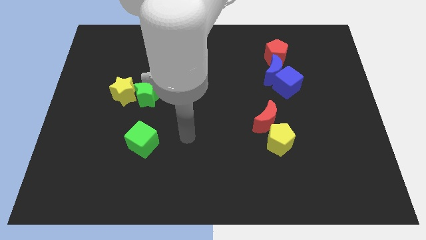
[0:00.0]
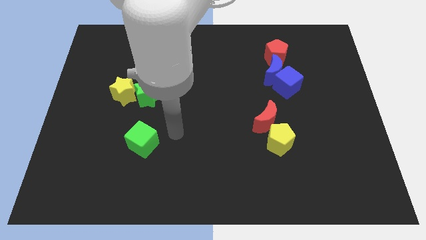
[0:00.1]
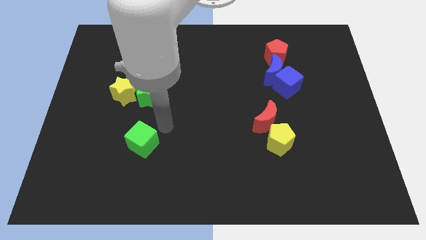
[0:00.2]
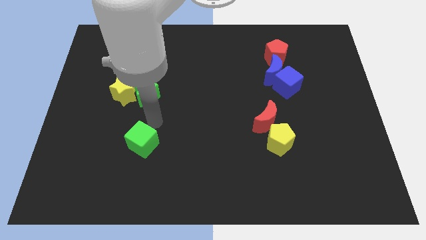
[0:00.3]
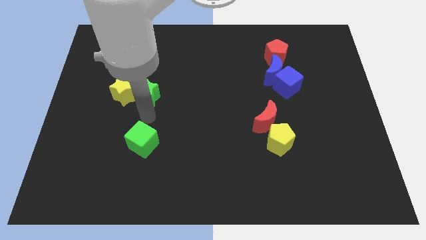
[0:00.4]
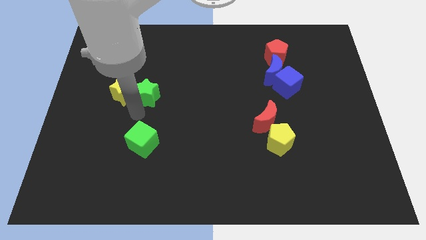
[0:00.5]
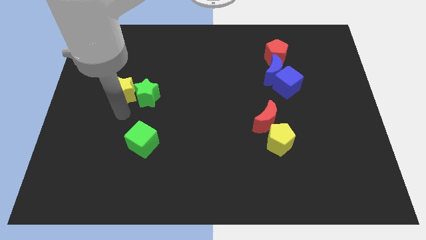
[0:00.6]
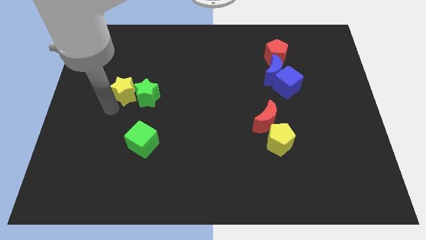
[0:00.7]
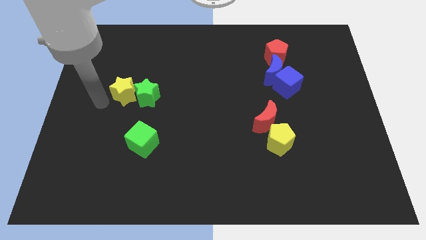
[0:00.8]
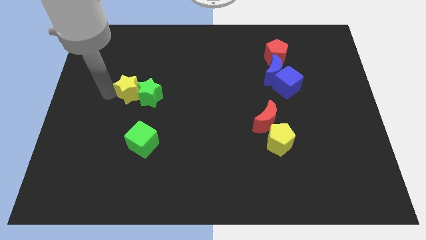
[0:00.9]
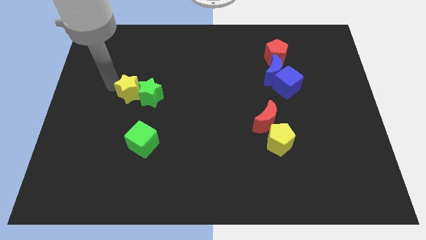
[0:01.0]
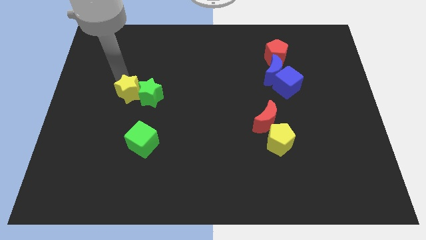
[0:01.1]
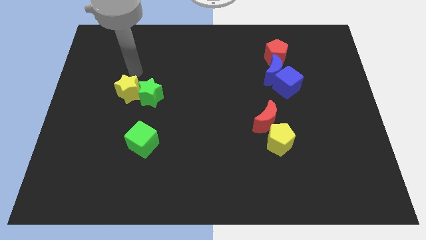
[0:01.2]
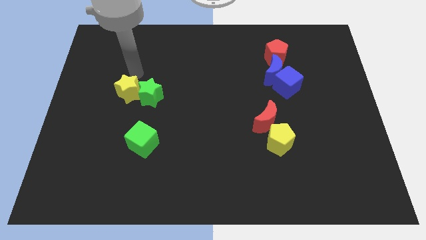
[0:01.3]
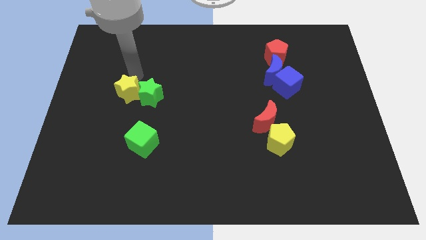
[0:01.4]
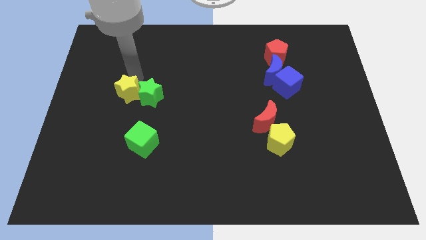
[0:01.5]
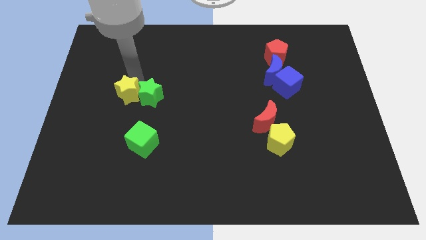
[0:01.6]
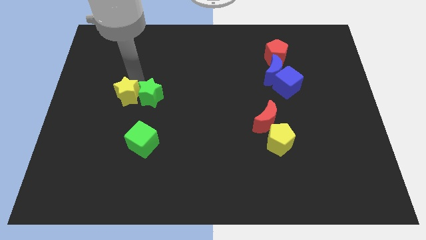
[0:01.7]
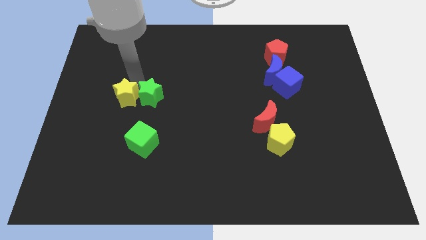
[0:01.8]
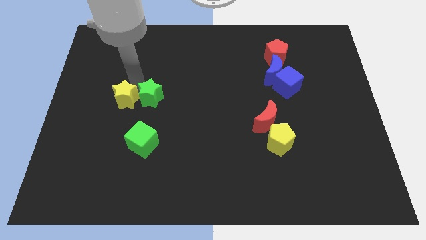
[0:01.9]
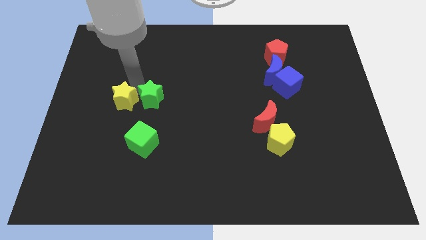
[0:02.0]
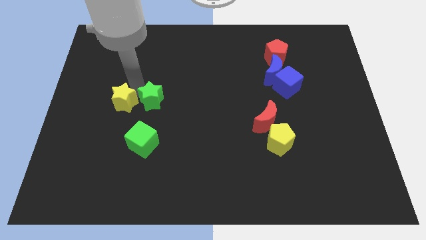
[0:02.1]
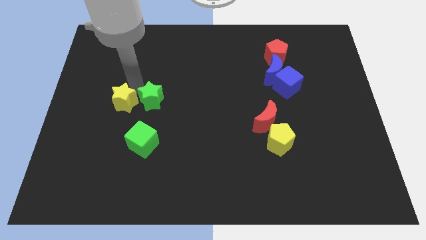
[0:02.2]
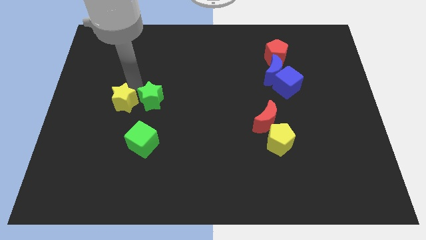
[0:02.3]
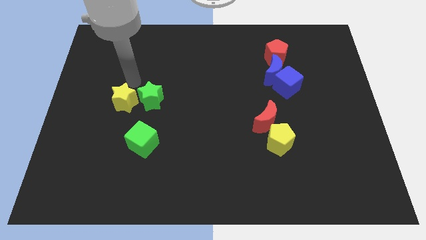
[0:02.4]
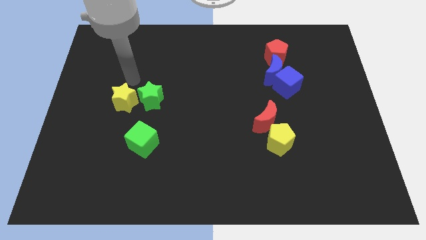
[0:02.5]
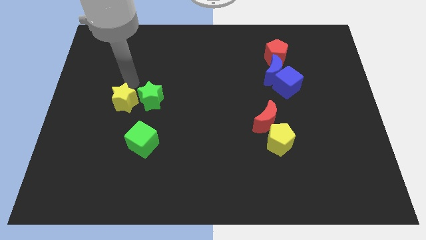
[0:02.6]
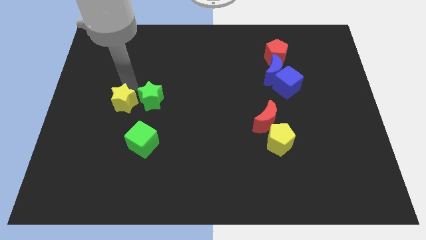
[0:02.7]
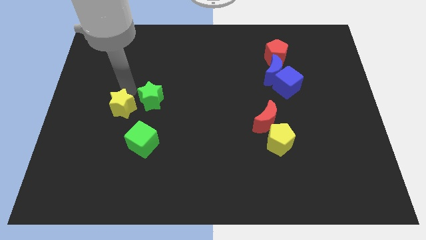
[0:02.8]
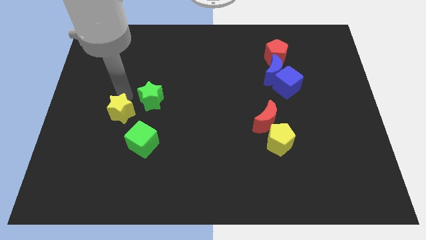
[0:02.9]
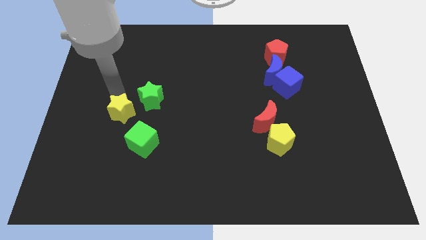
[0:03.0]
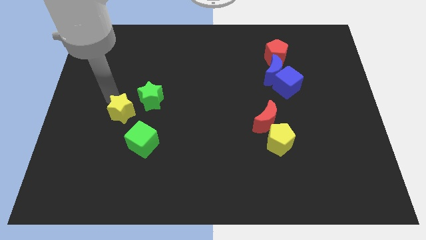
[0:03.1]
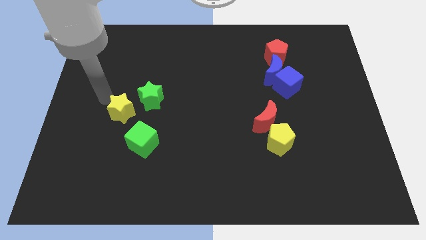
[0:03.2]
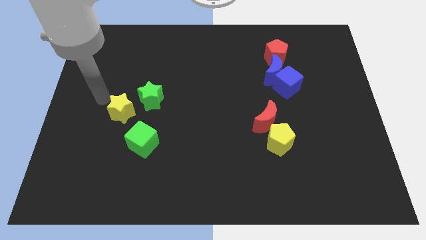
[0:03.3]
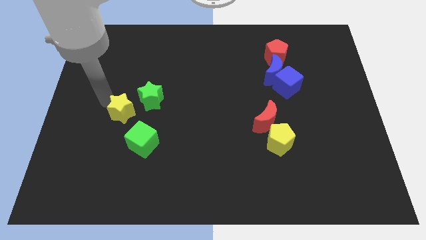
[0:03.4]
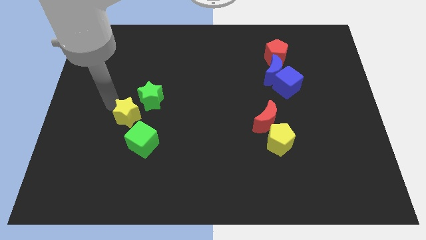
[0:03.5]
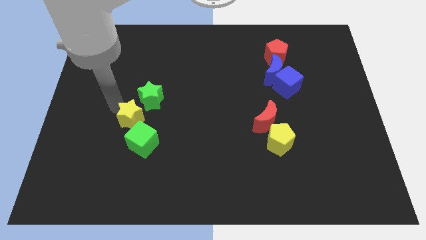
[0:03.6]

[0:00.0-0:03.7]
slightly move the yellow star down and to the right

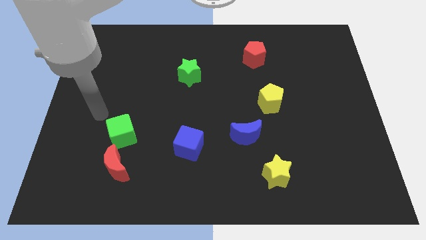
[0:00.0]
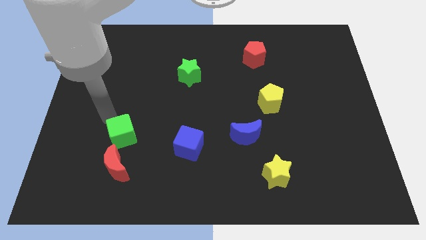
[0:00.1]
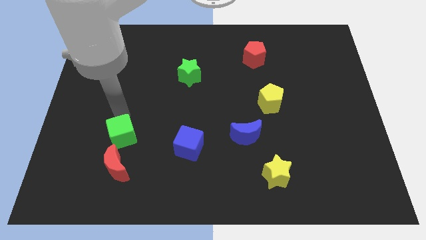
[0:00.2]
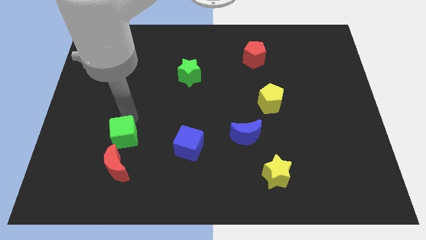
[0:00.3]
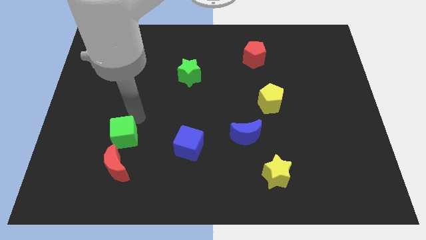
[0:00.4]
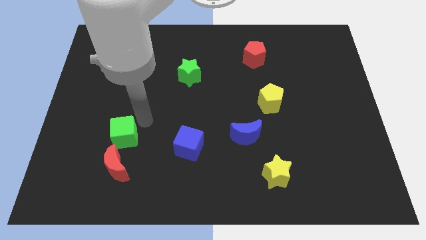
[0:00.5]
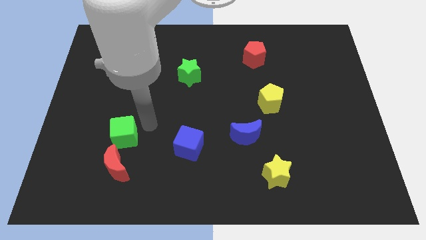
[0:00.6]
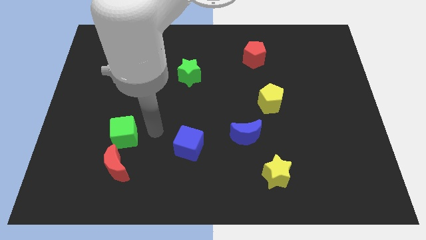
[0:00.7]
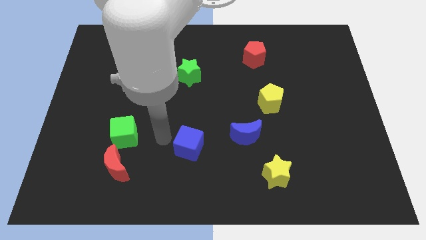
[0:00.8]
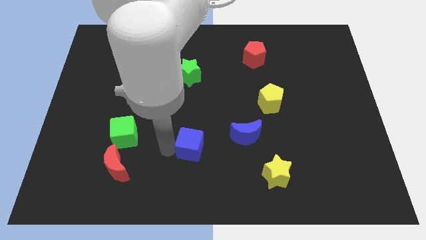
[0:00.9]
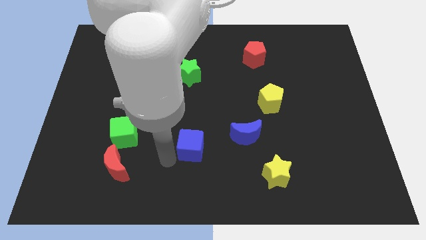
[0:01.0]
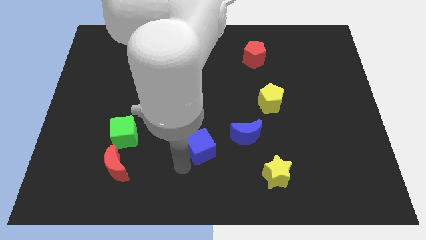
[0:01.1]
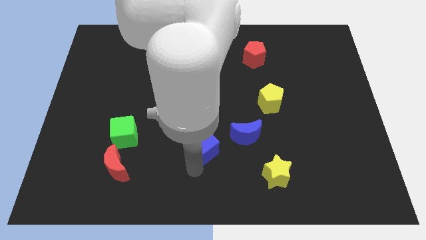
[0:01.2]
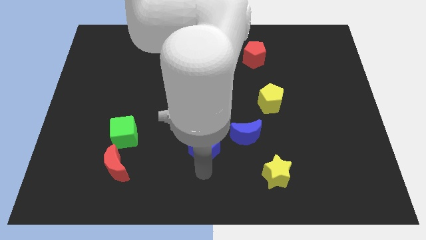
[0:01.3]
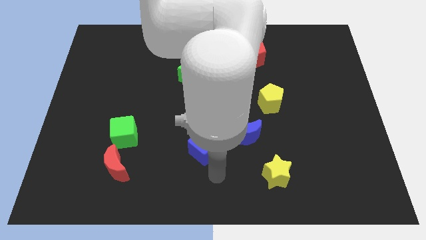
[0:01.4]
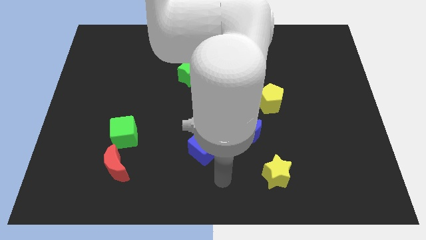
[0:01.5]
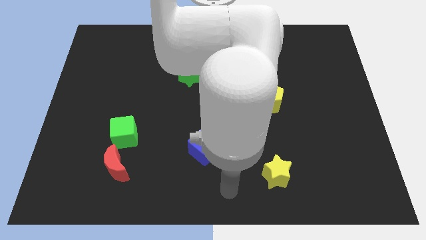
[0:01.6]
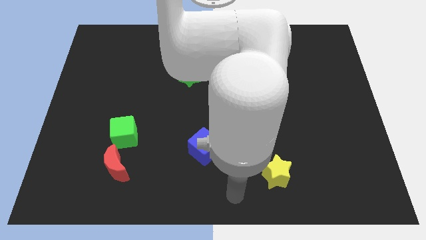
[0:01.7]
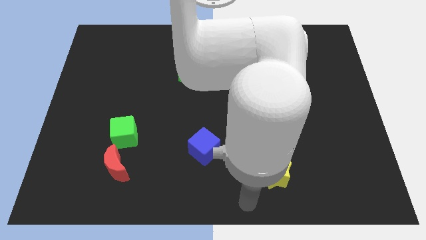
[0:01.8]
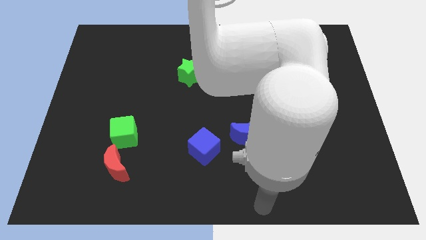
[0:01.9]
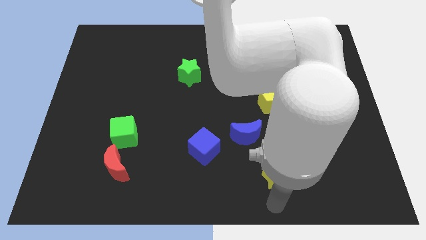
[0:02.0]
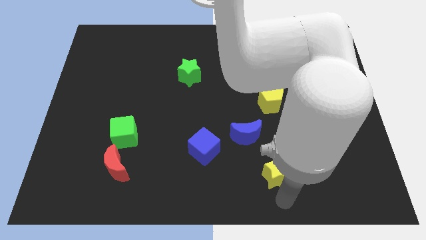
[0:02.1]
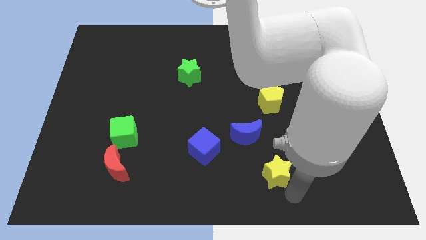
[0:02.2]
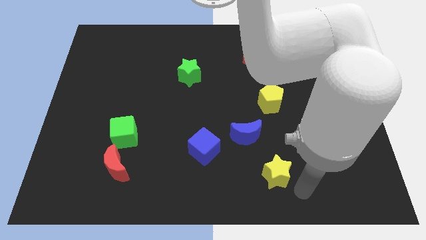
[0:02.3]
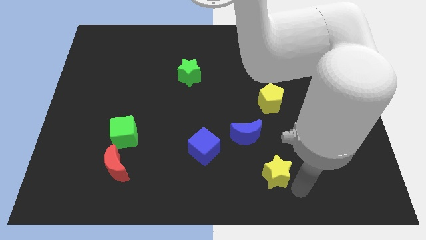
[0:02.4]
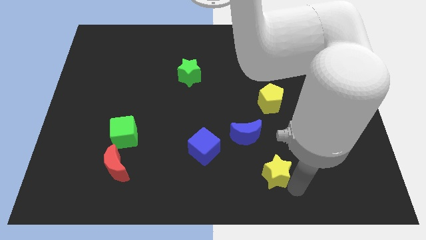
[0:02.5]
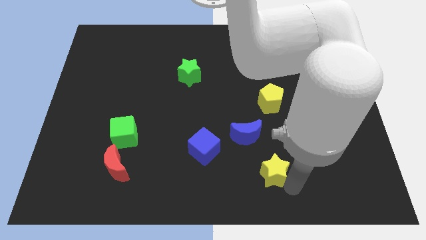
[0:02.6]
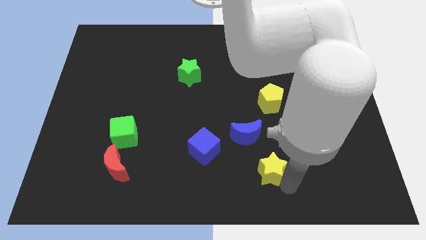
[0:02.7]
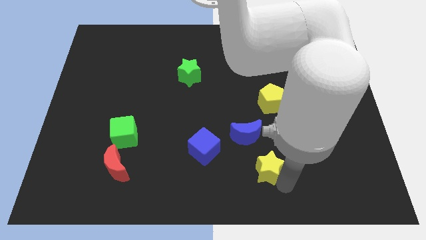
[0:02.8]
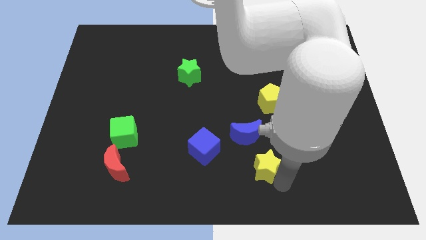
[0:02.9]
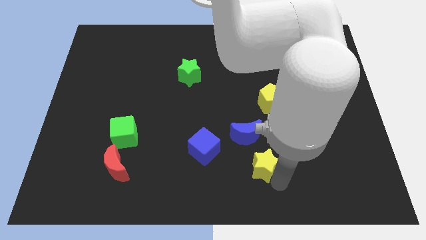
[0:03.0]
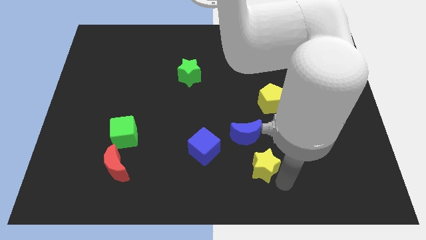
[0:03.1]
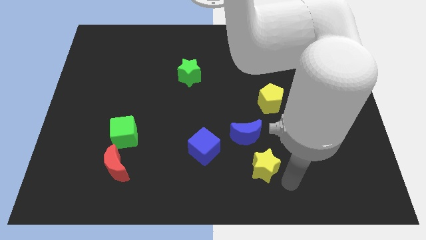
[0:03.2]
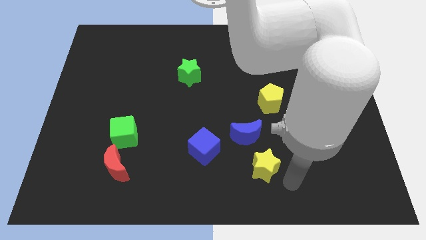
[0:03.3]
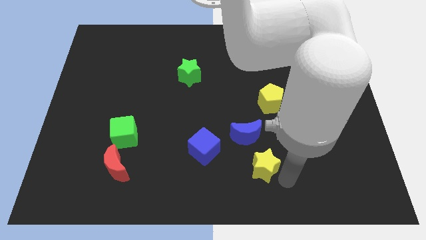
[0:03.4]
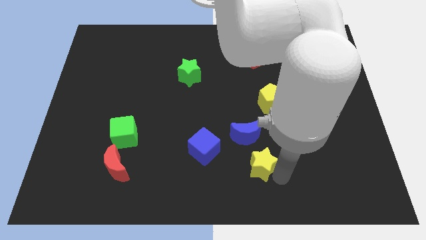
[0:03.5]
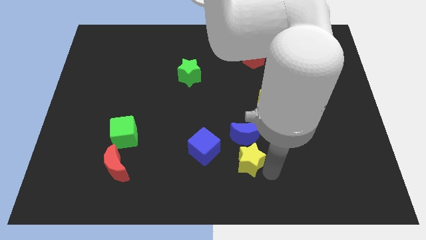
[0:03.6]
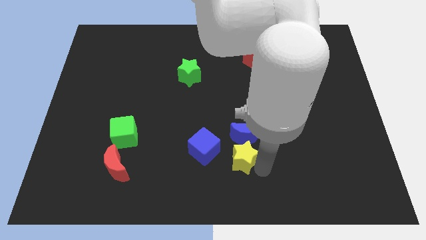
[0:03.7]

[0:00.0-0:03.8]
slightly push the yellow star diagonally up and to the left

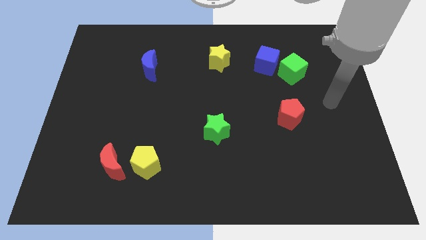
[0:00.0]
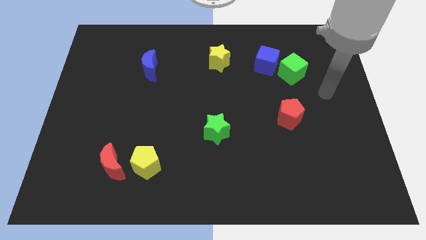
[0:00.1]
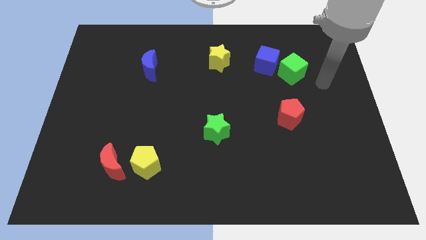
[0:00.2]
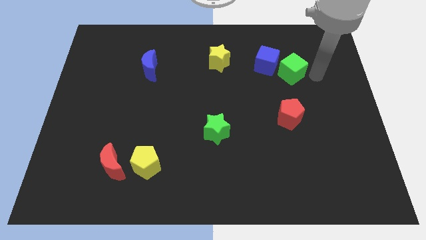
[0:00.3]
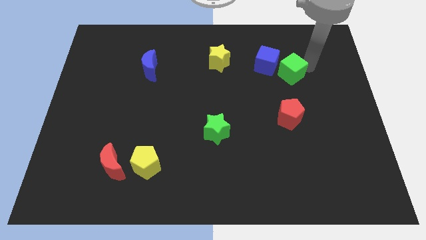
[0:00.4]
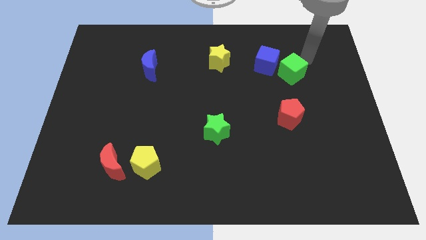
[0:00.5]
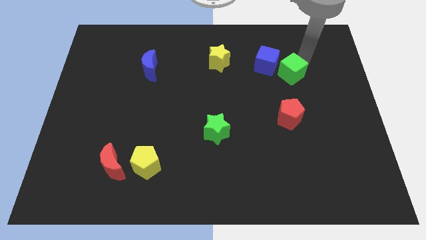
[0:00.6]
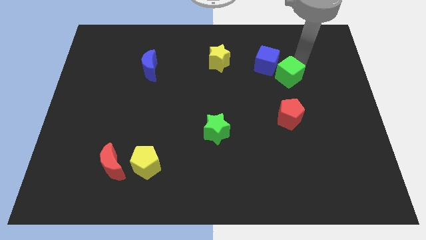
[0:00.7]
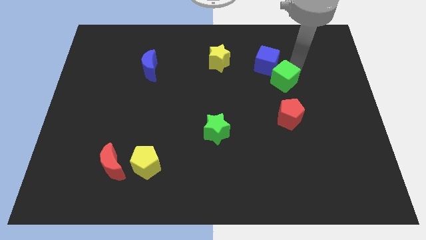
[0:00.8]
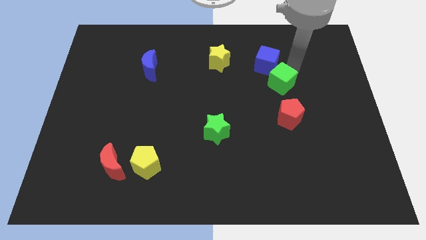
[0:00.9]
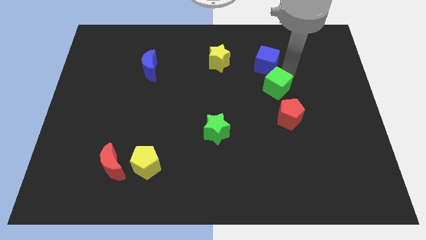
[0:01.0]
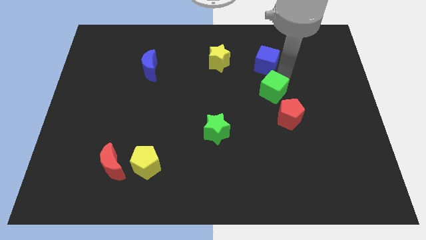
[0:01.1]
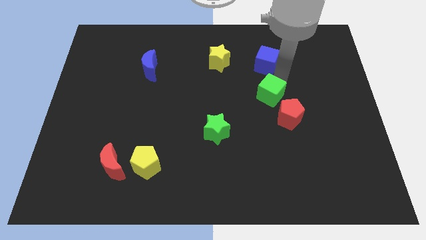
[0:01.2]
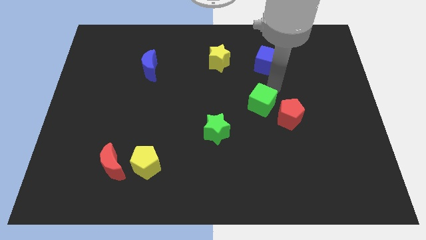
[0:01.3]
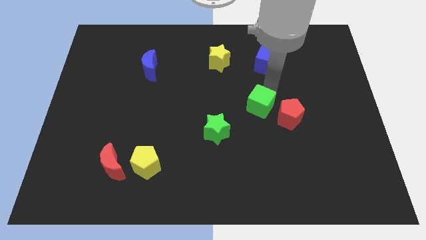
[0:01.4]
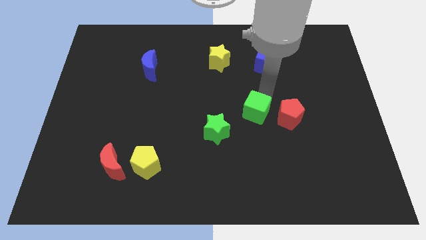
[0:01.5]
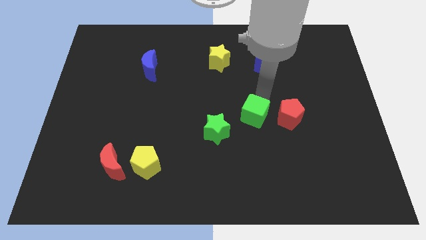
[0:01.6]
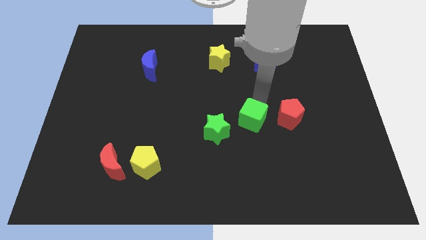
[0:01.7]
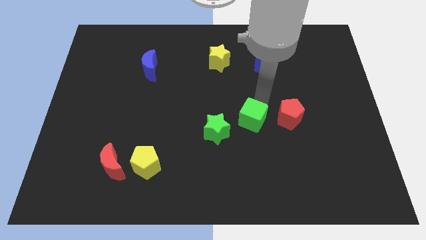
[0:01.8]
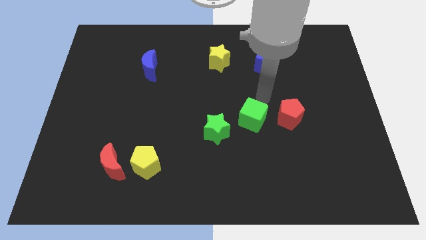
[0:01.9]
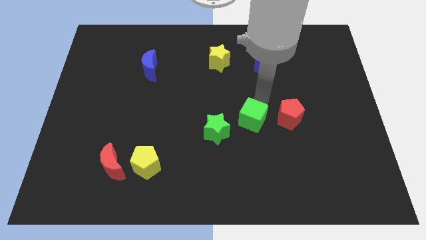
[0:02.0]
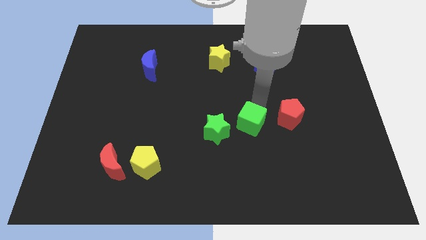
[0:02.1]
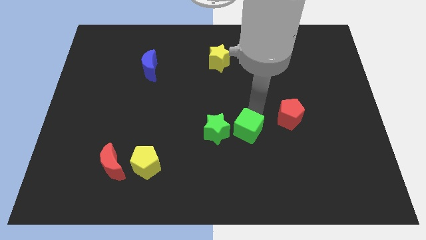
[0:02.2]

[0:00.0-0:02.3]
slide the green cube down and to the left diagonally
